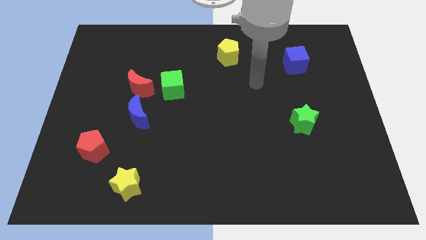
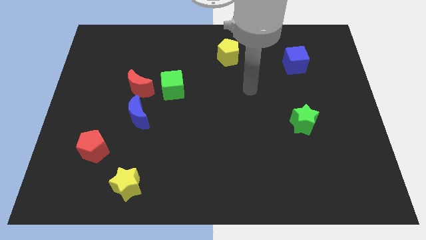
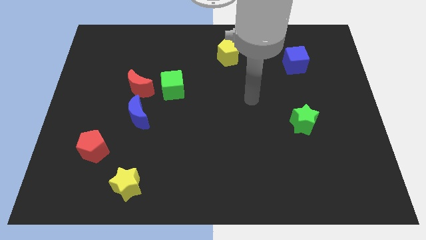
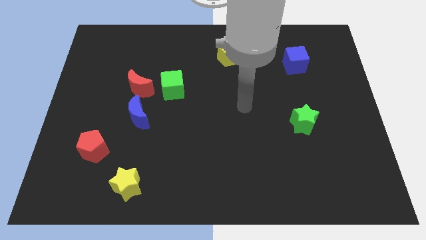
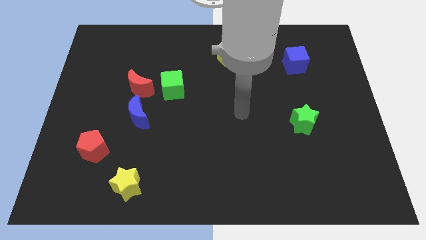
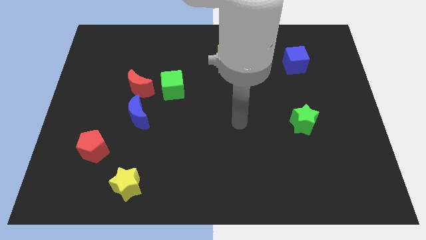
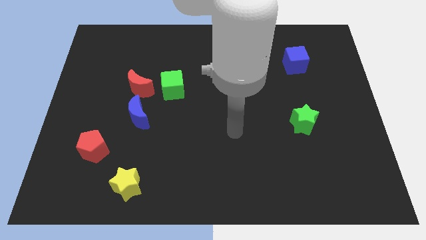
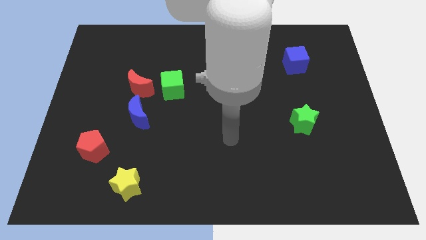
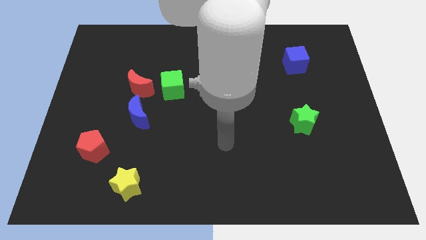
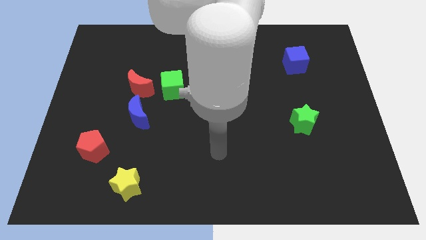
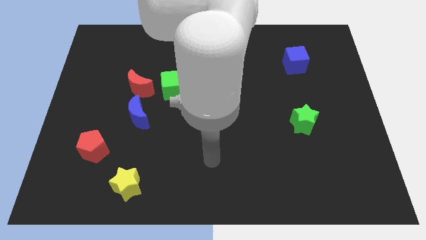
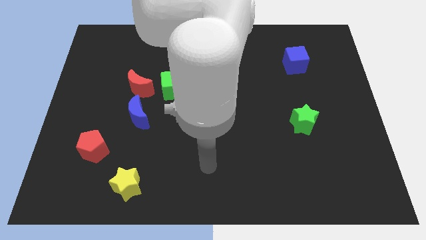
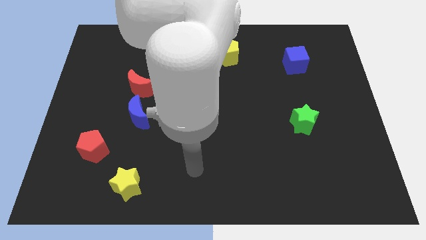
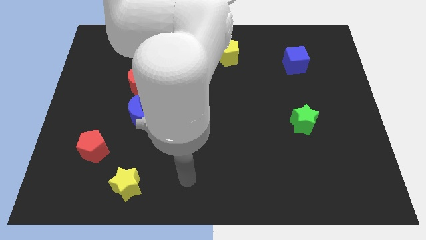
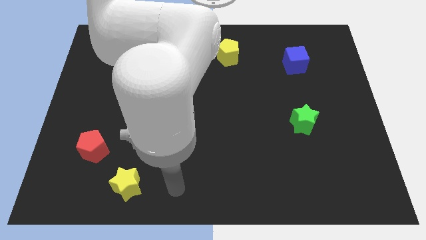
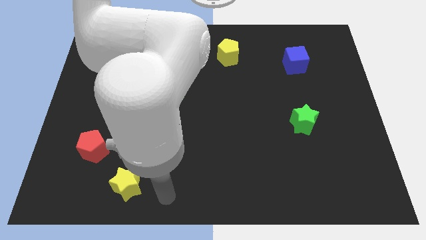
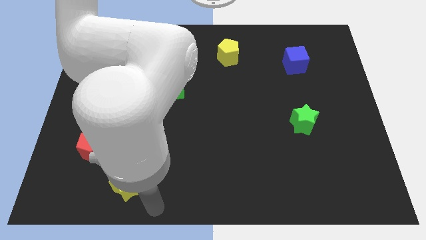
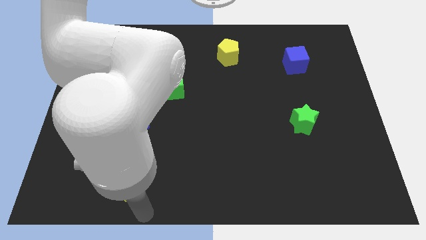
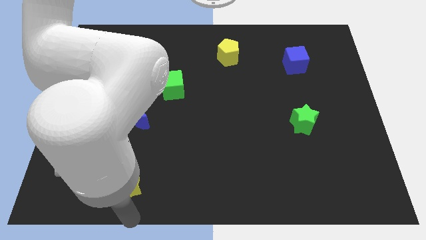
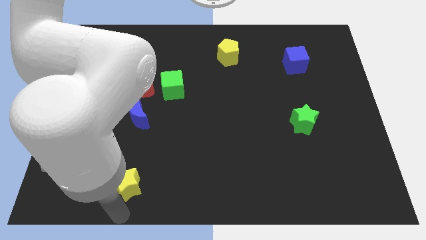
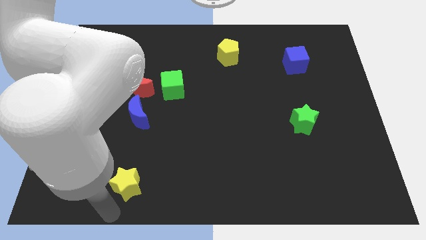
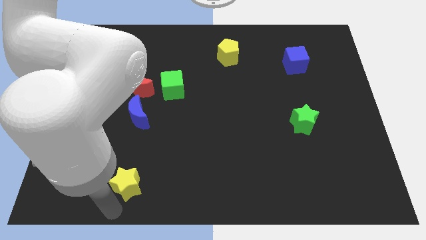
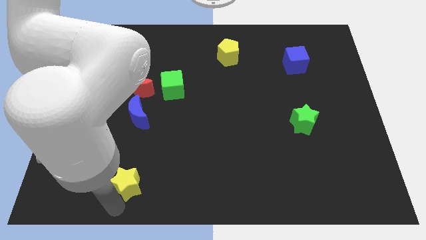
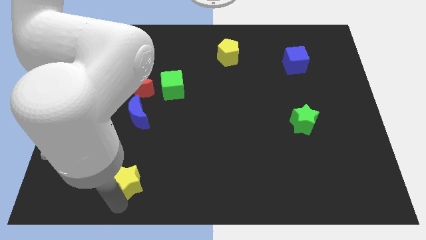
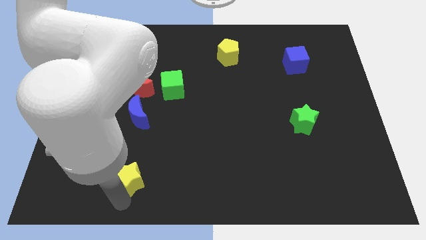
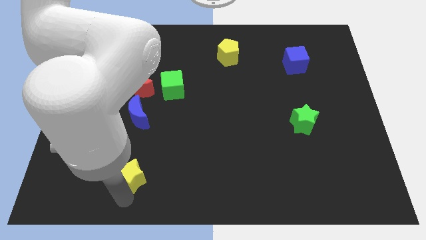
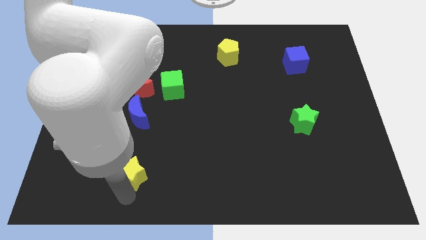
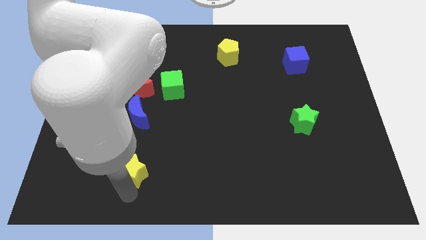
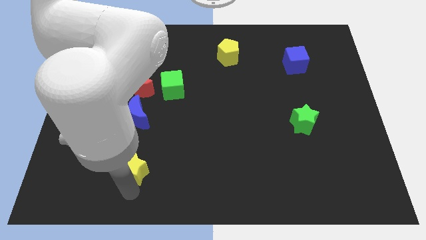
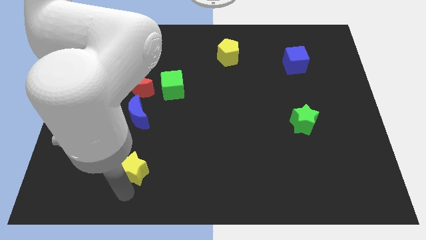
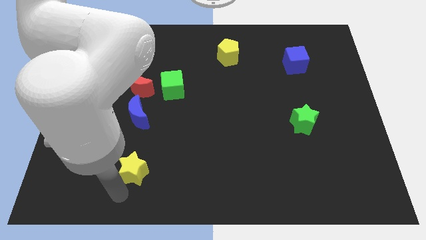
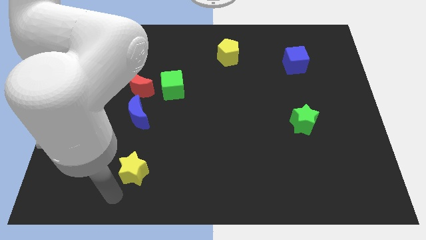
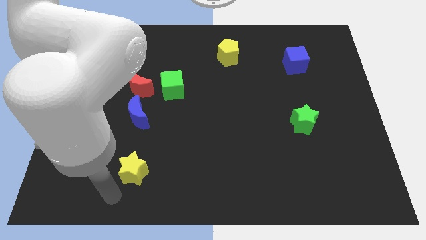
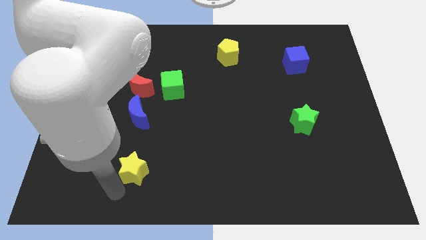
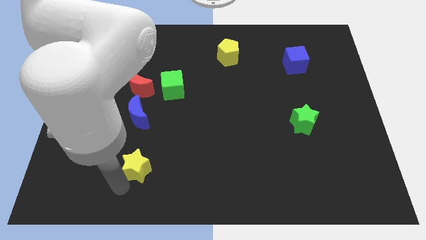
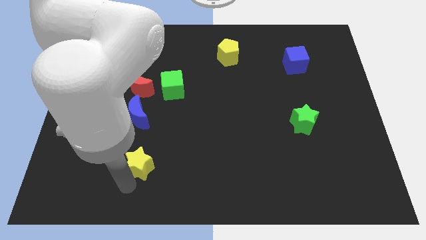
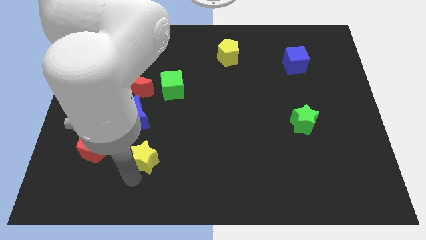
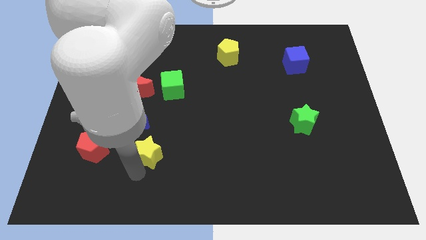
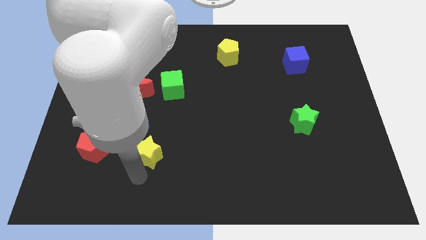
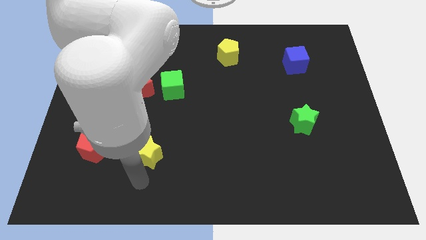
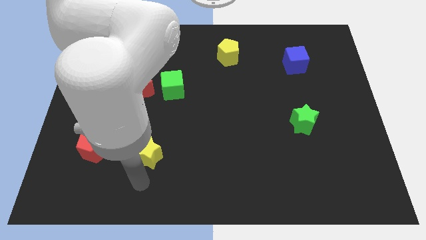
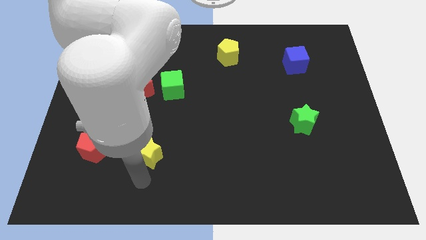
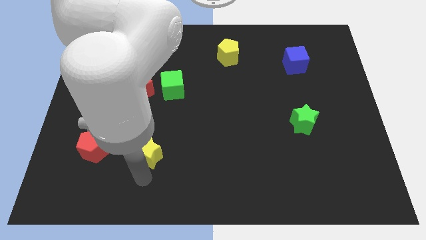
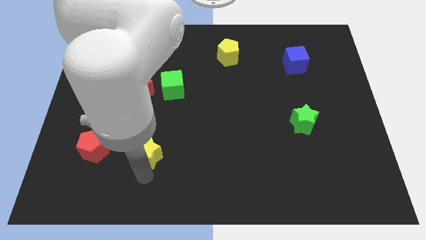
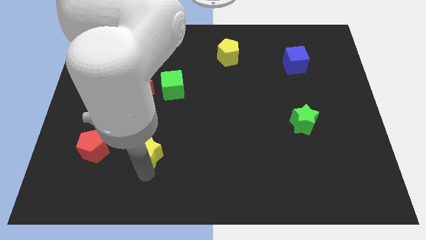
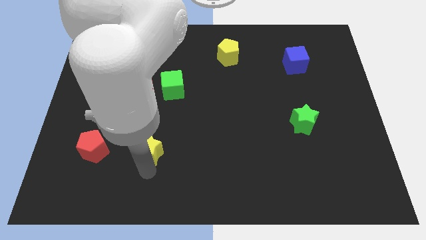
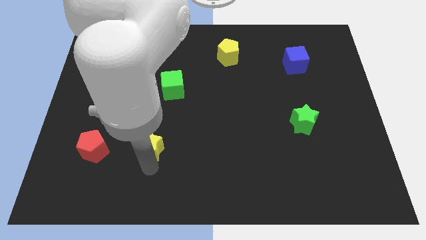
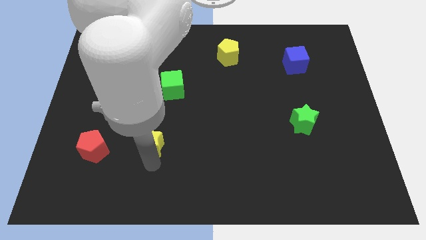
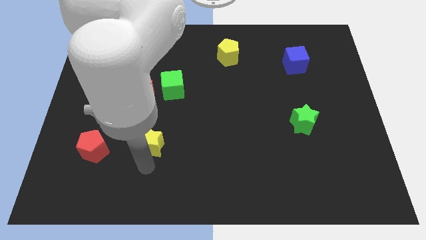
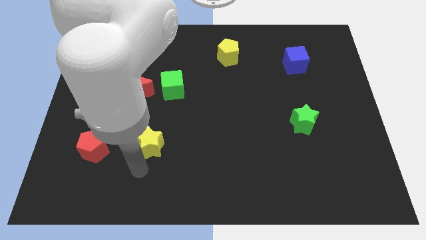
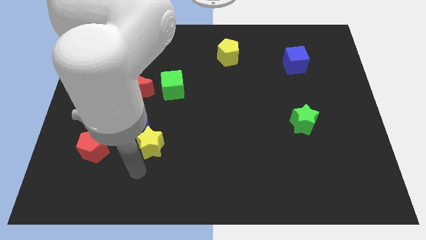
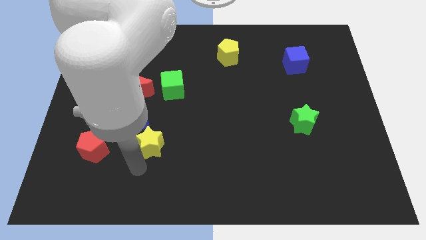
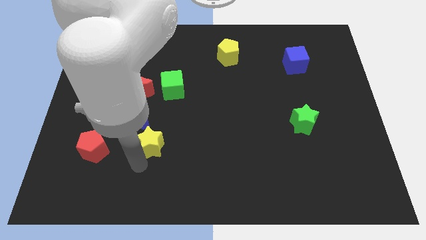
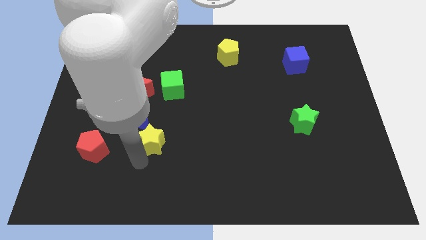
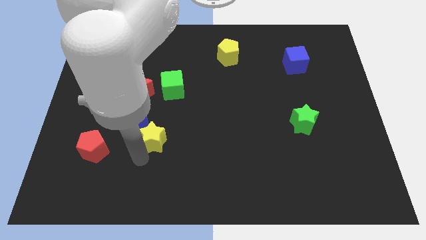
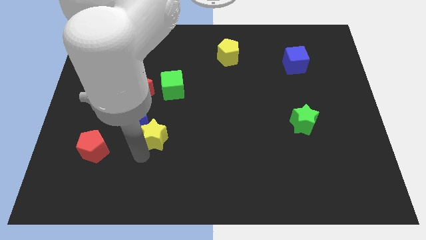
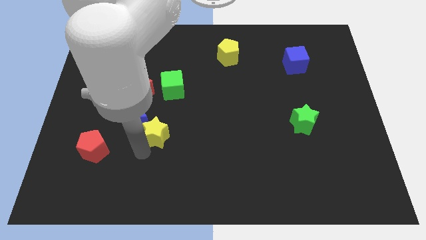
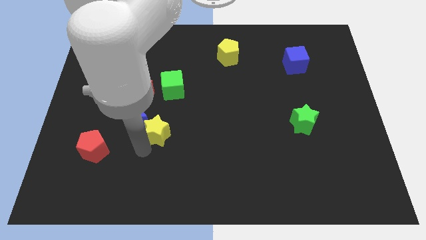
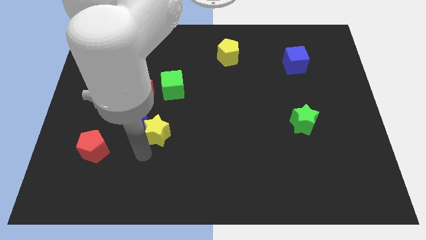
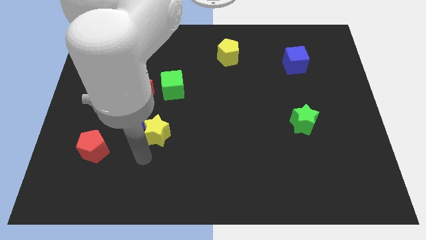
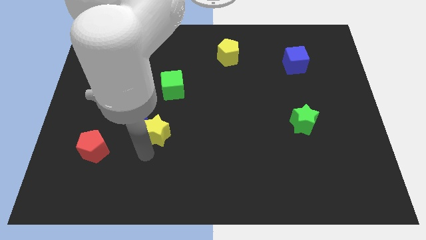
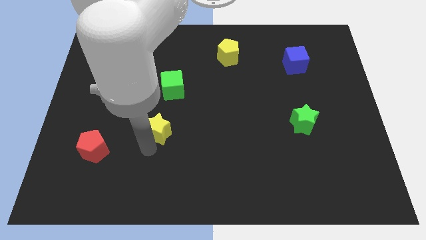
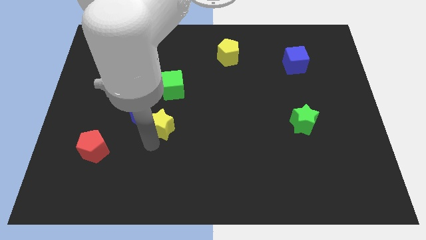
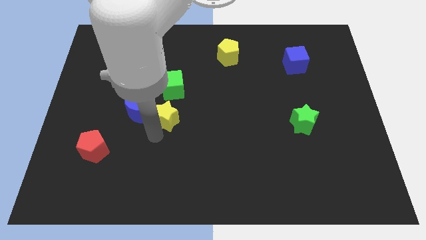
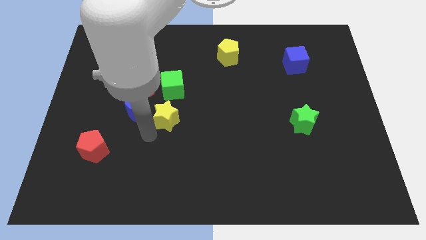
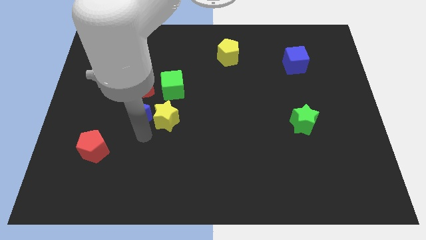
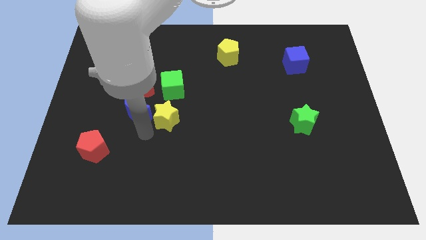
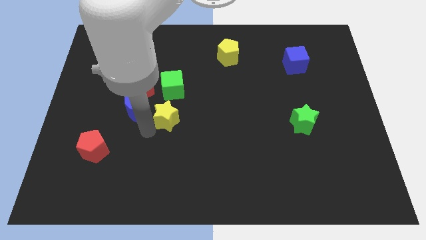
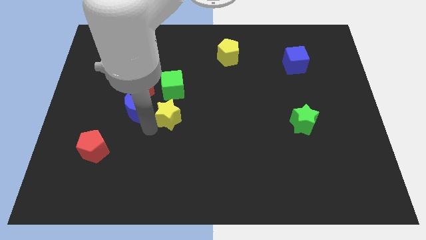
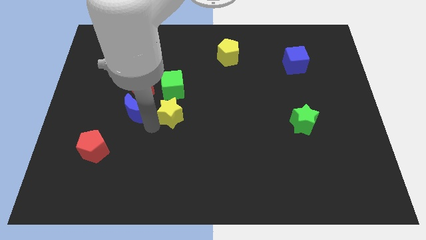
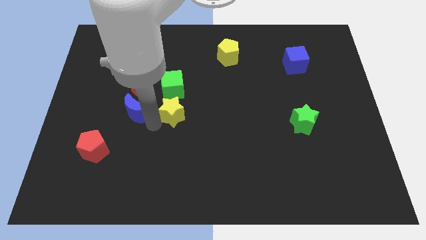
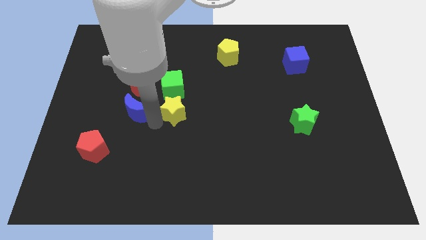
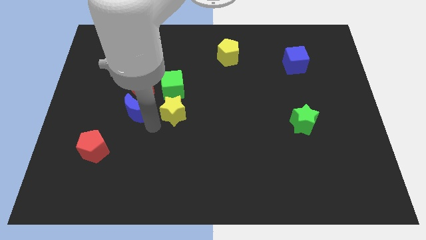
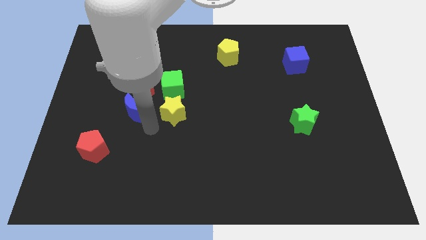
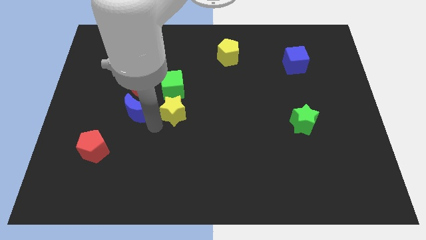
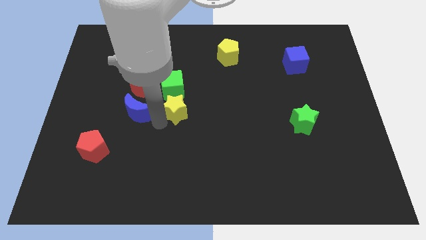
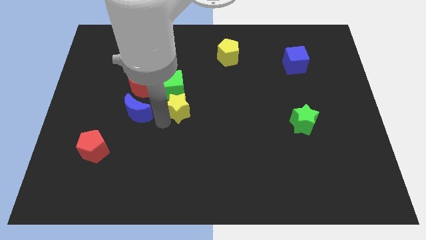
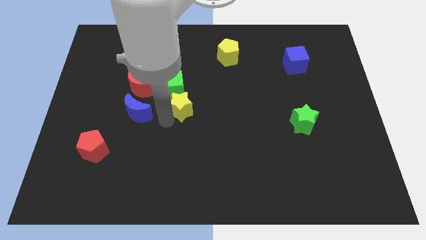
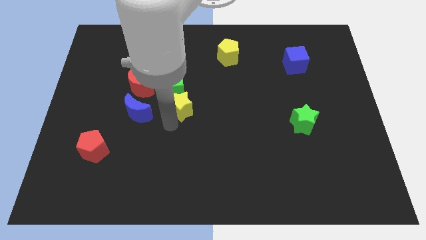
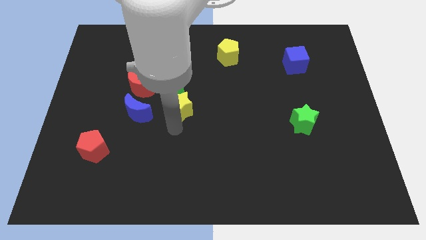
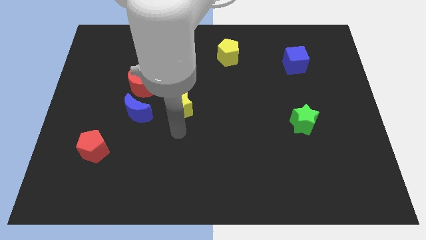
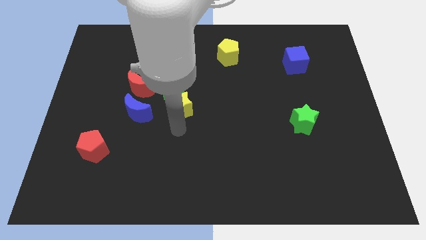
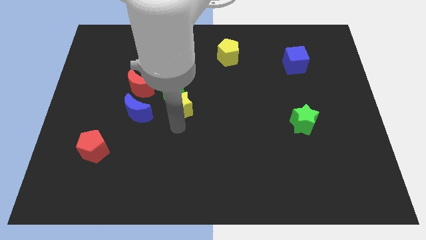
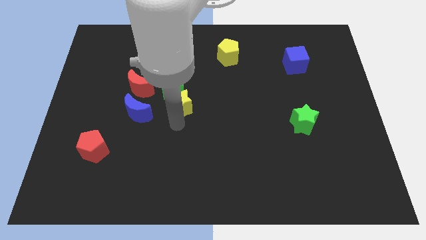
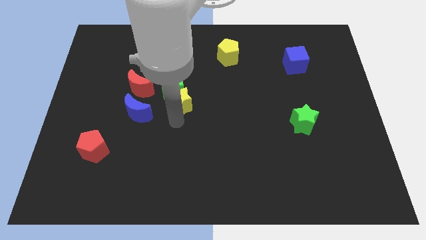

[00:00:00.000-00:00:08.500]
put the yellow star to the right of the red moon
